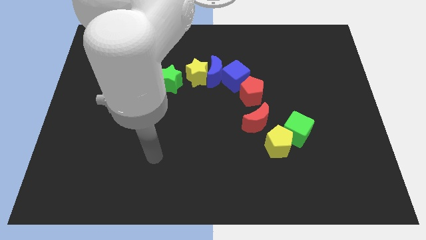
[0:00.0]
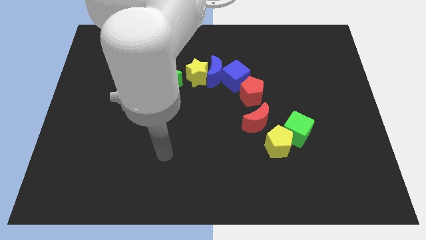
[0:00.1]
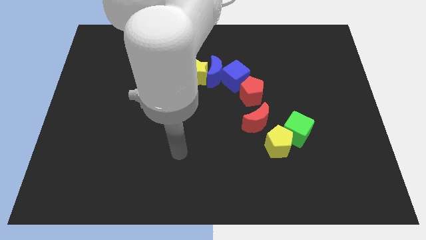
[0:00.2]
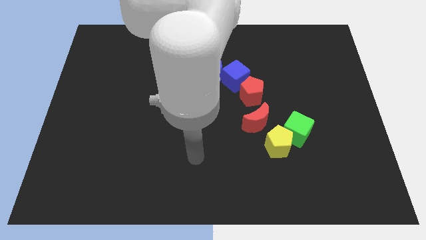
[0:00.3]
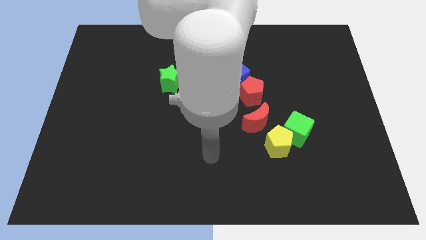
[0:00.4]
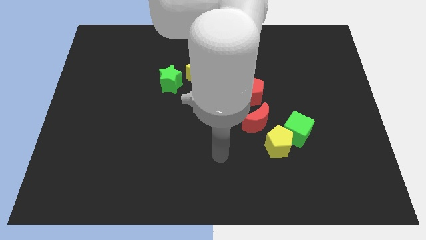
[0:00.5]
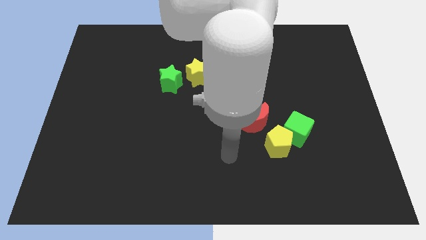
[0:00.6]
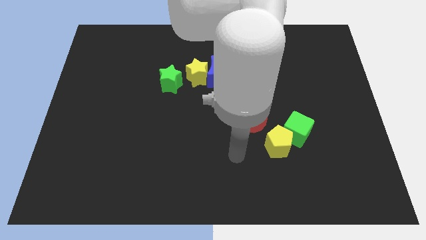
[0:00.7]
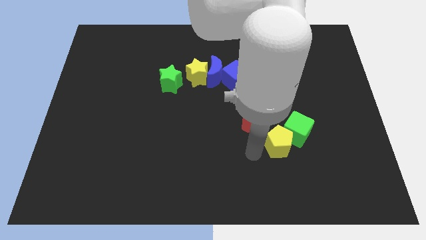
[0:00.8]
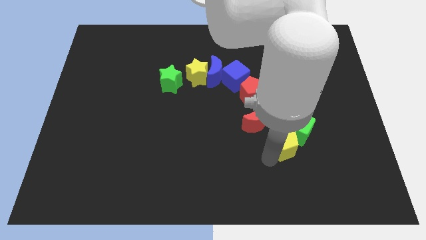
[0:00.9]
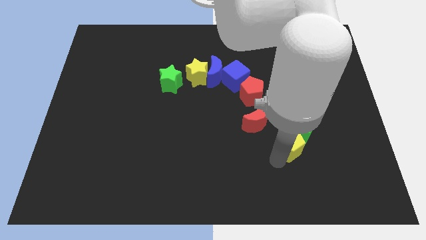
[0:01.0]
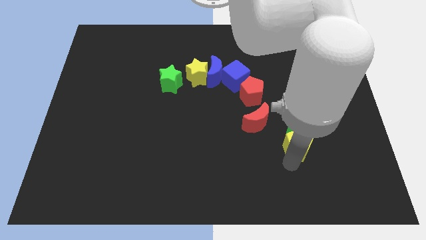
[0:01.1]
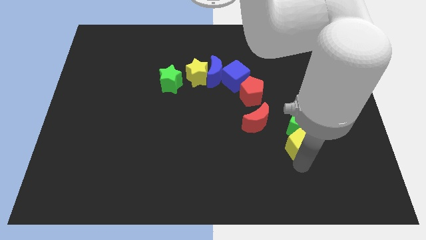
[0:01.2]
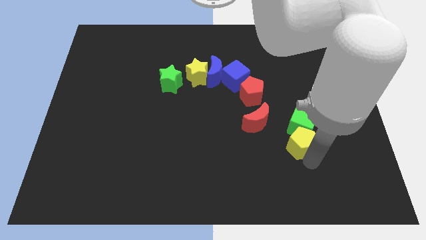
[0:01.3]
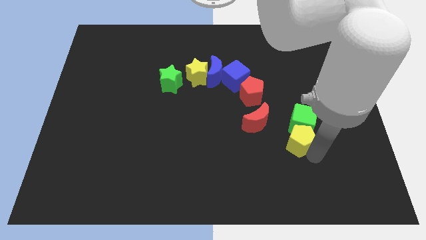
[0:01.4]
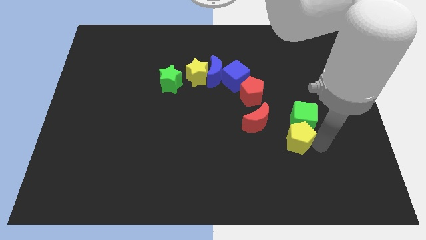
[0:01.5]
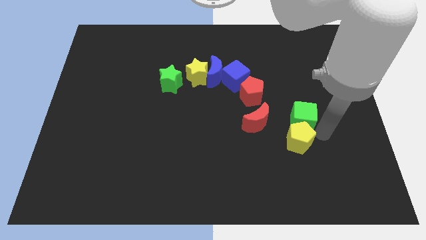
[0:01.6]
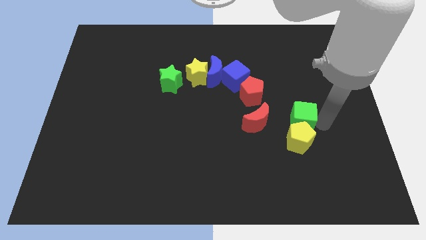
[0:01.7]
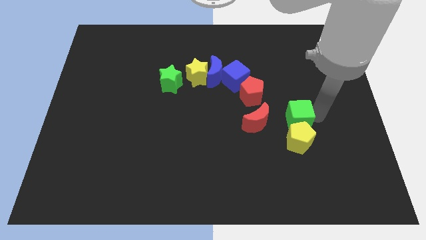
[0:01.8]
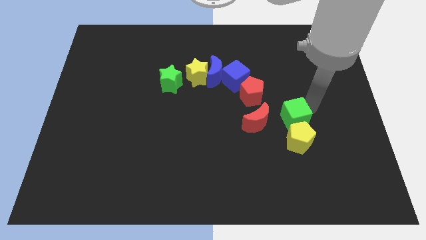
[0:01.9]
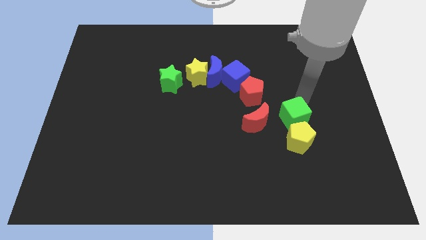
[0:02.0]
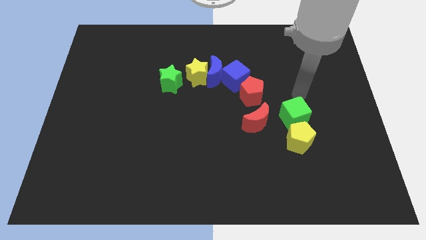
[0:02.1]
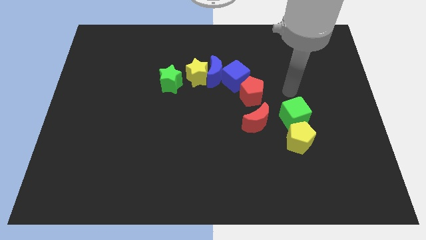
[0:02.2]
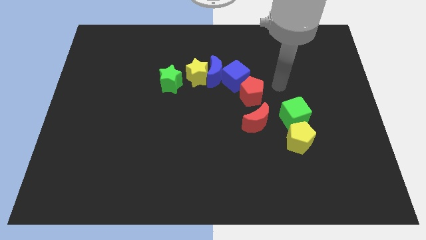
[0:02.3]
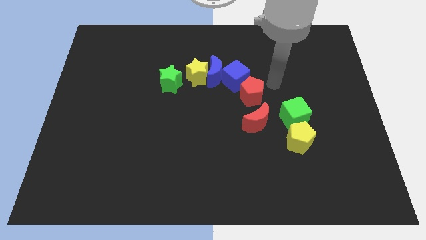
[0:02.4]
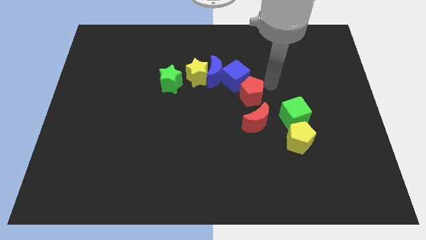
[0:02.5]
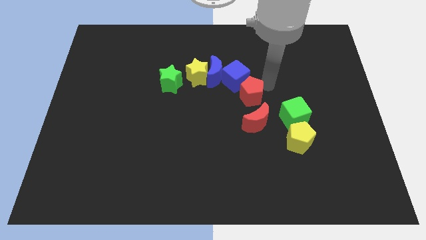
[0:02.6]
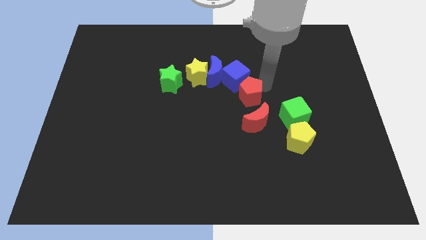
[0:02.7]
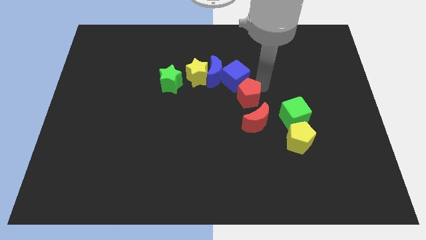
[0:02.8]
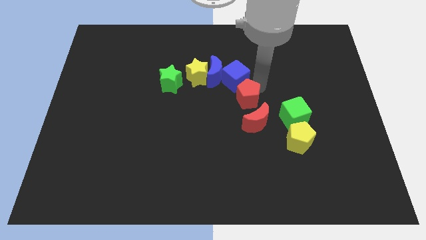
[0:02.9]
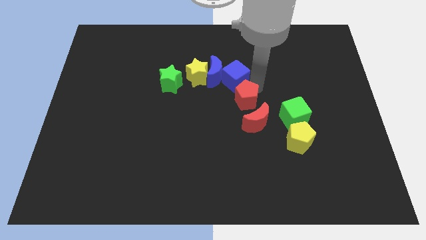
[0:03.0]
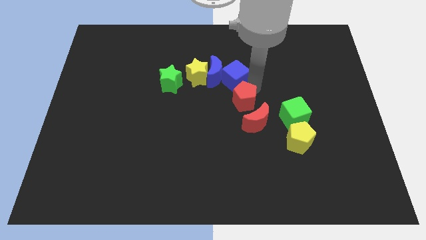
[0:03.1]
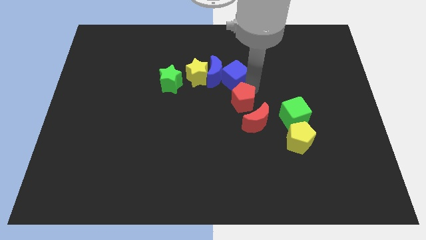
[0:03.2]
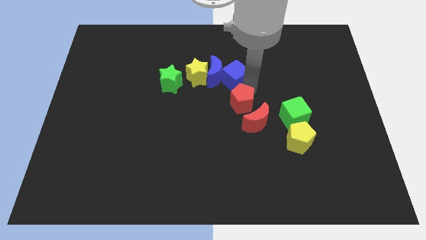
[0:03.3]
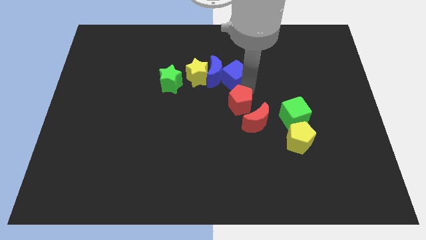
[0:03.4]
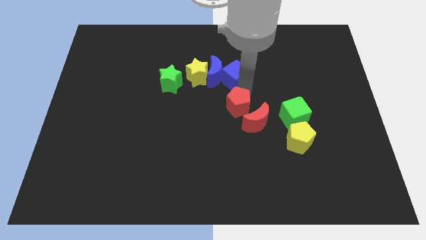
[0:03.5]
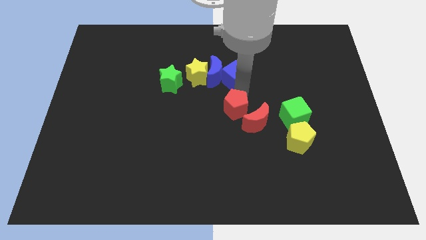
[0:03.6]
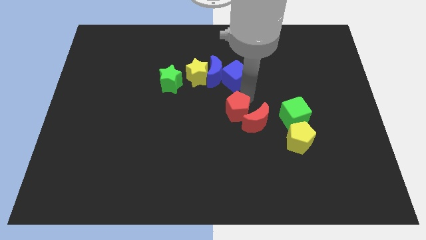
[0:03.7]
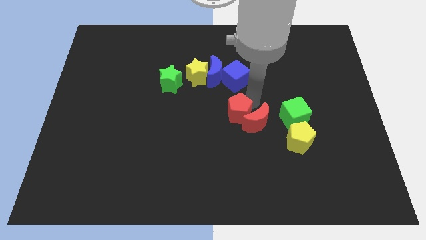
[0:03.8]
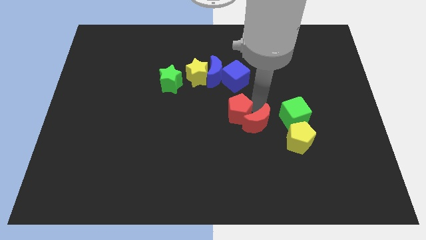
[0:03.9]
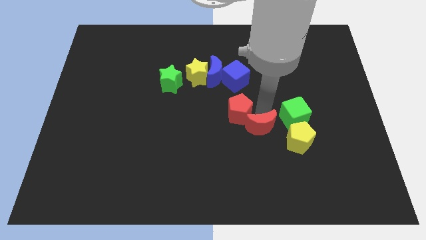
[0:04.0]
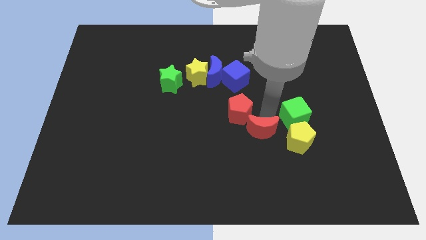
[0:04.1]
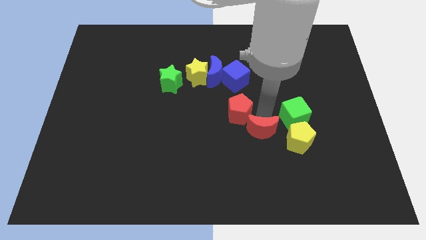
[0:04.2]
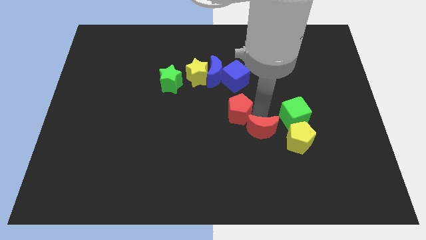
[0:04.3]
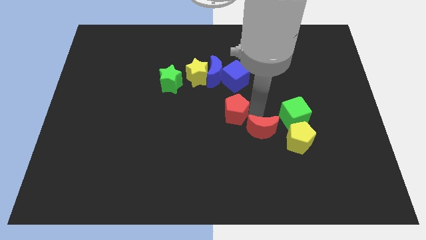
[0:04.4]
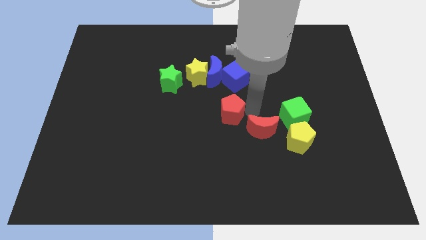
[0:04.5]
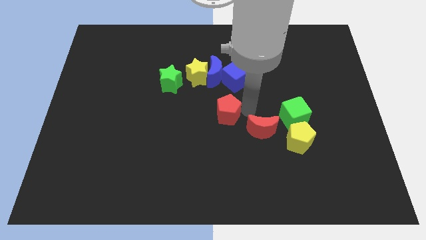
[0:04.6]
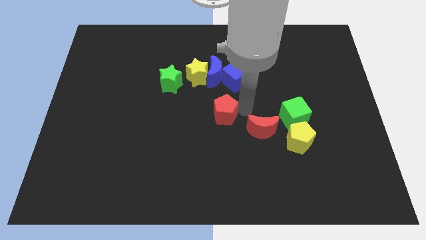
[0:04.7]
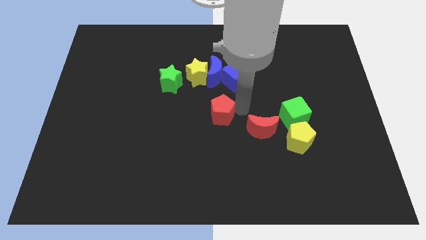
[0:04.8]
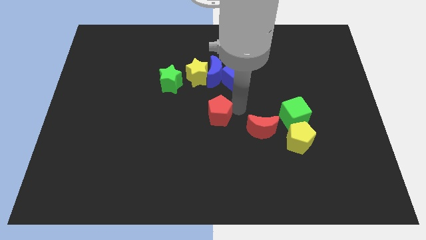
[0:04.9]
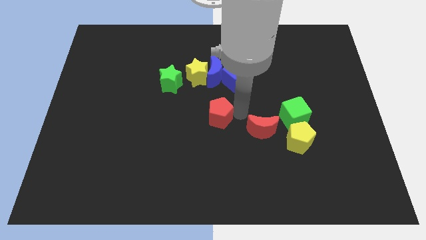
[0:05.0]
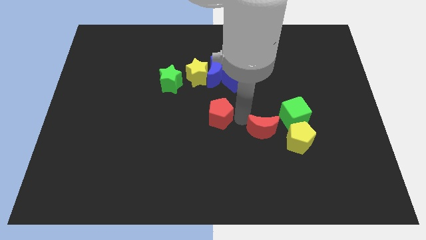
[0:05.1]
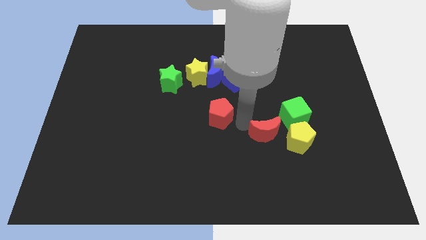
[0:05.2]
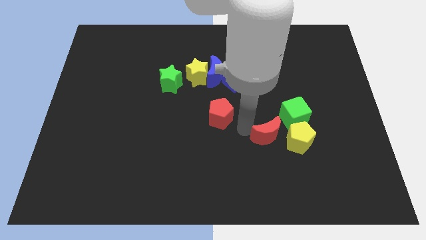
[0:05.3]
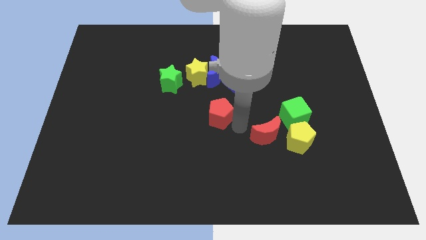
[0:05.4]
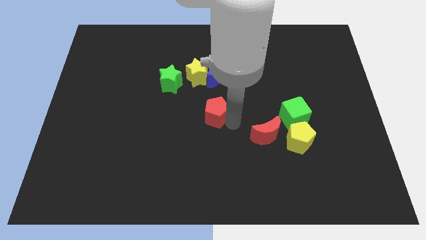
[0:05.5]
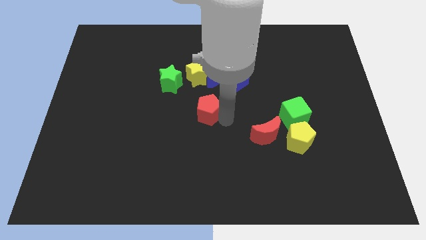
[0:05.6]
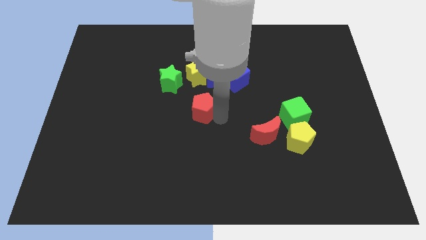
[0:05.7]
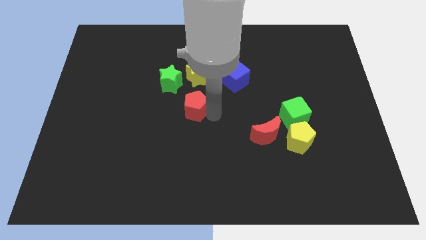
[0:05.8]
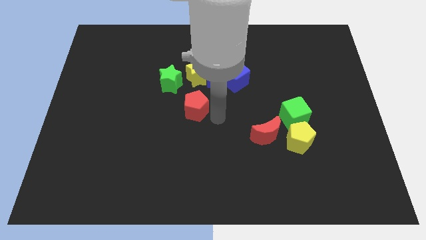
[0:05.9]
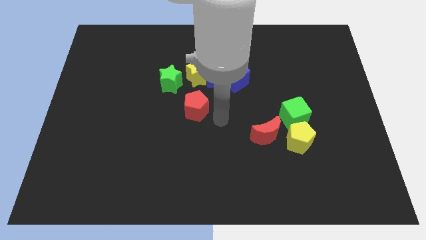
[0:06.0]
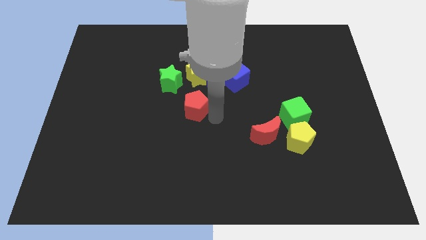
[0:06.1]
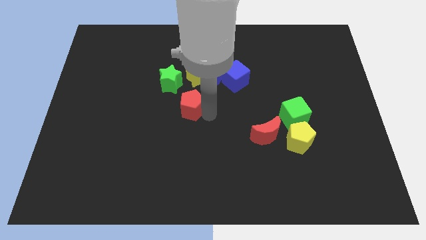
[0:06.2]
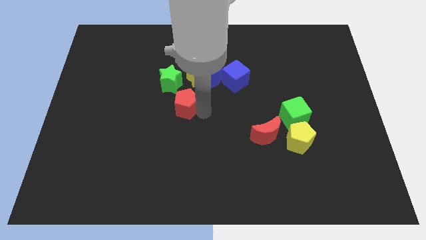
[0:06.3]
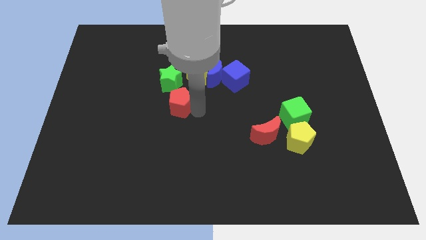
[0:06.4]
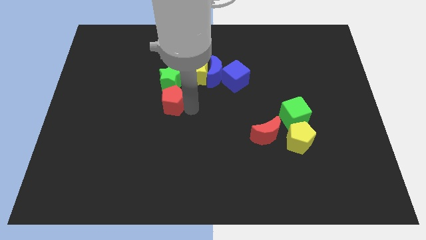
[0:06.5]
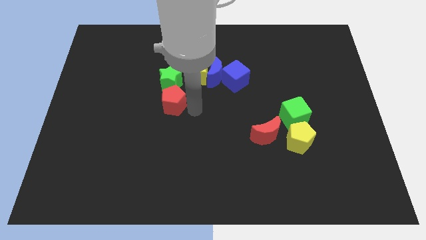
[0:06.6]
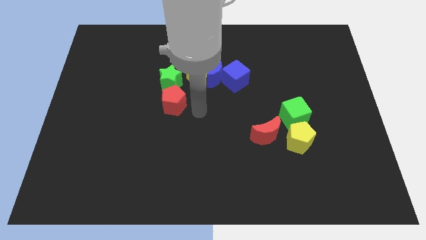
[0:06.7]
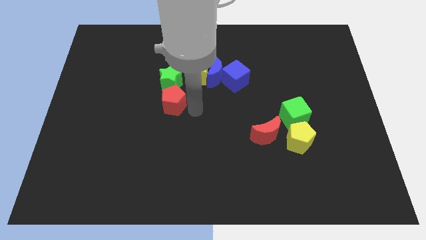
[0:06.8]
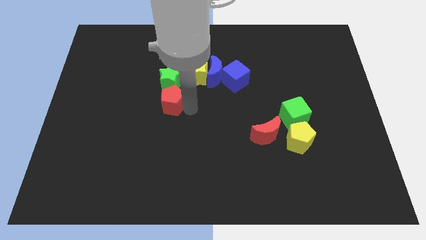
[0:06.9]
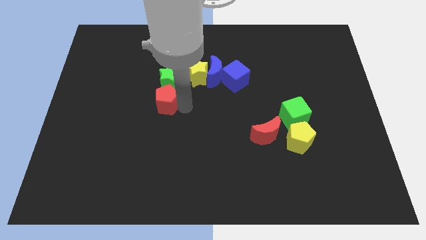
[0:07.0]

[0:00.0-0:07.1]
push the red pentagon left

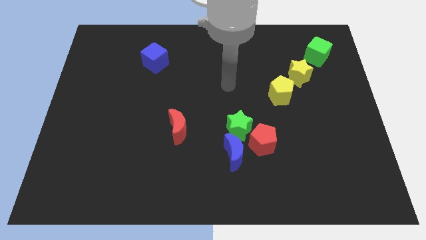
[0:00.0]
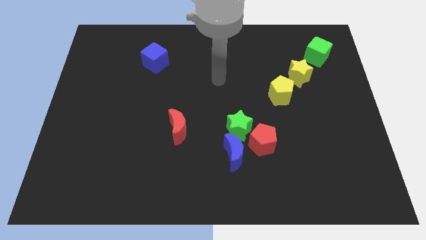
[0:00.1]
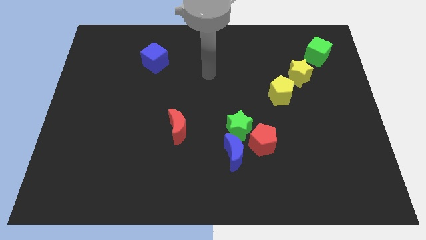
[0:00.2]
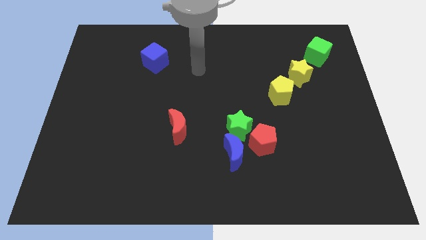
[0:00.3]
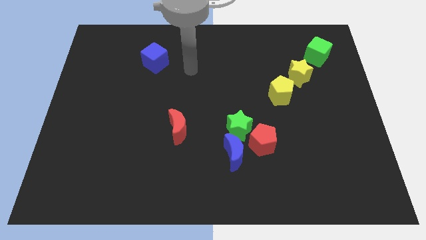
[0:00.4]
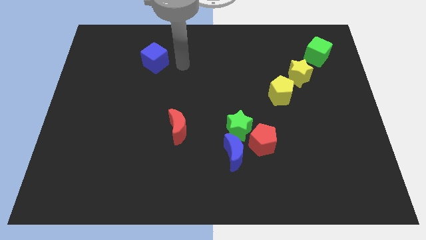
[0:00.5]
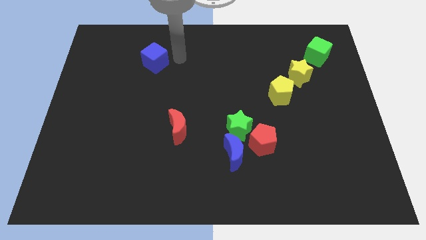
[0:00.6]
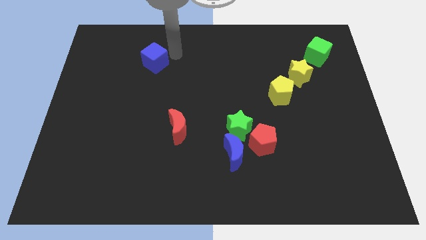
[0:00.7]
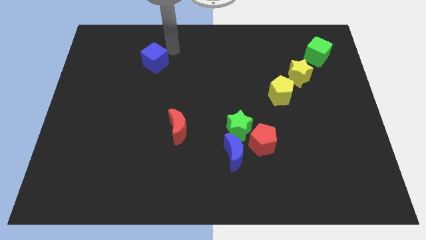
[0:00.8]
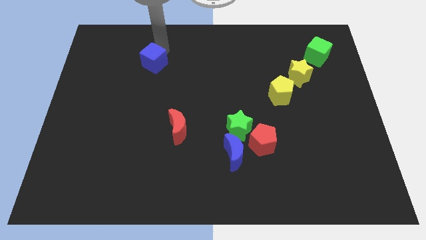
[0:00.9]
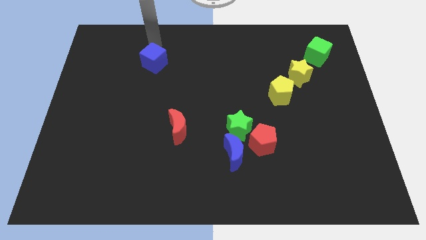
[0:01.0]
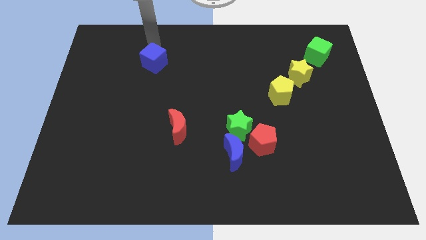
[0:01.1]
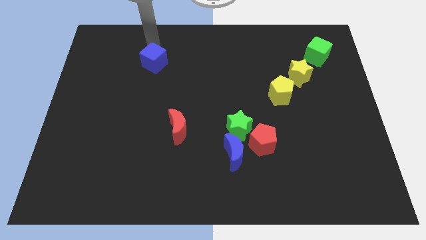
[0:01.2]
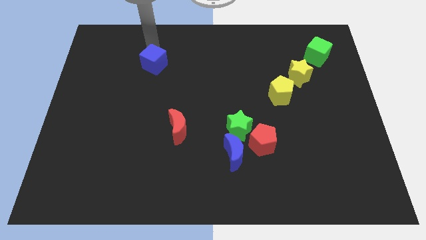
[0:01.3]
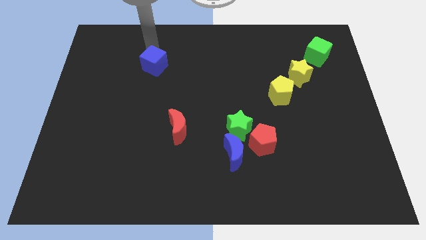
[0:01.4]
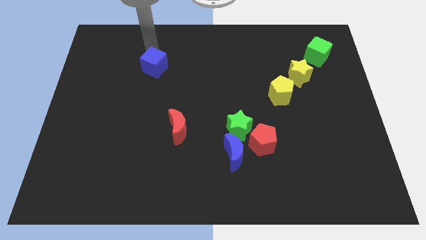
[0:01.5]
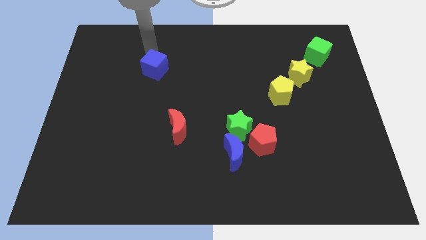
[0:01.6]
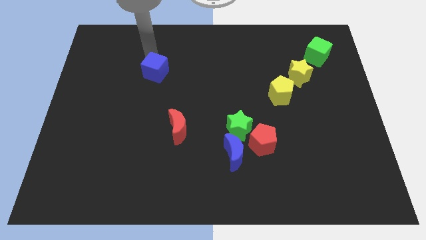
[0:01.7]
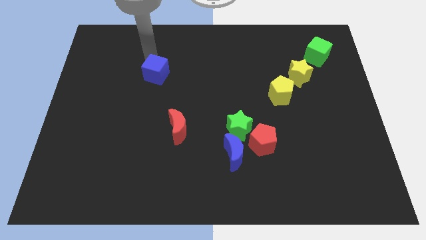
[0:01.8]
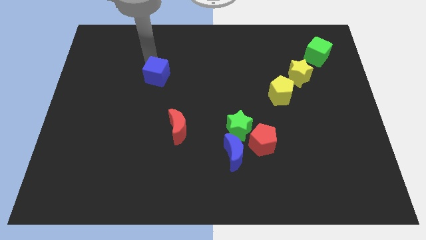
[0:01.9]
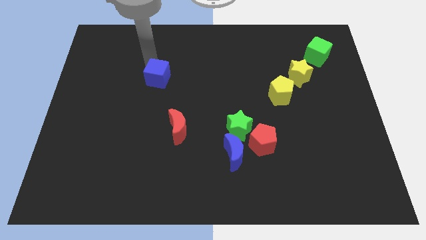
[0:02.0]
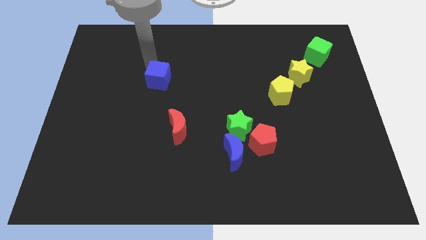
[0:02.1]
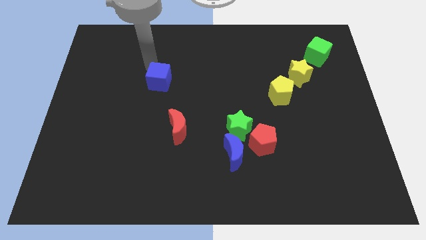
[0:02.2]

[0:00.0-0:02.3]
push the blue cube down somewhat
